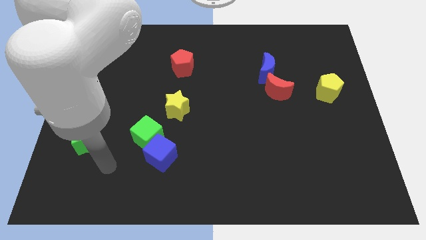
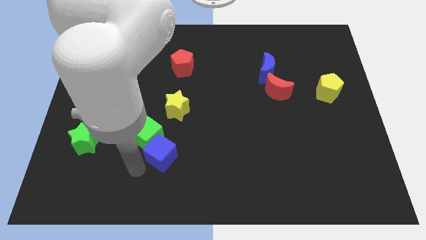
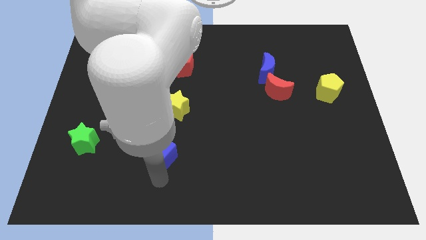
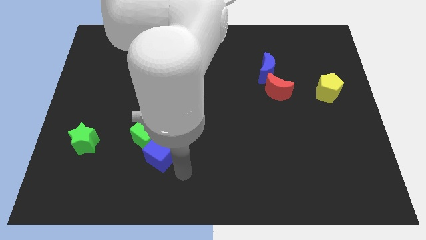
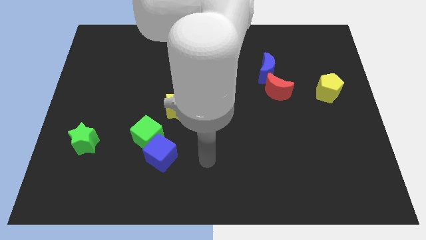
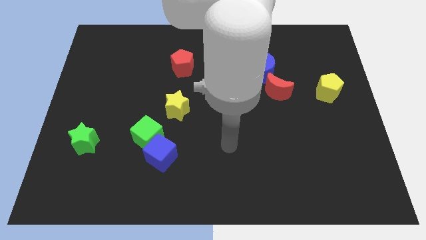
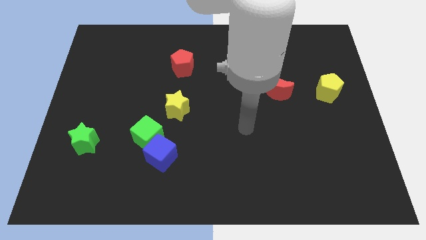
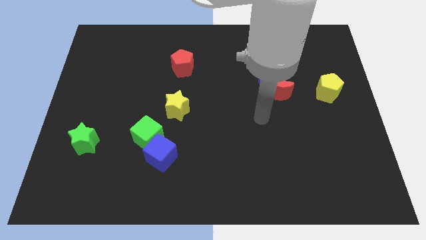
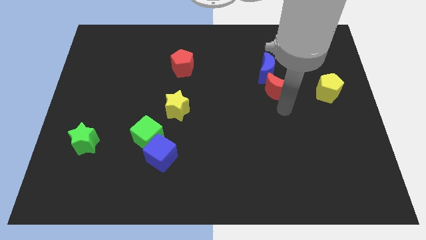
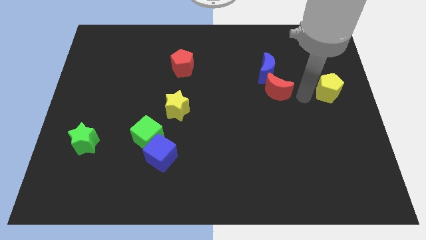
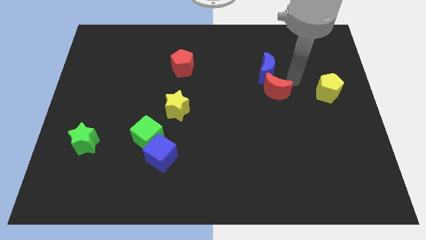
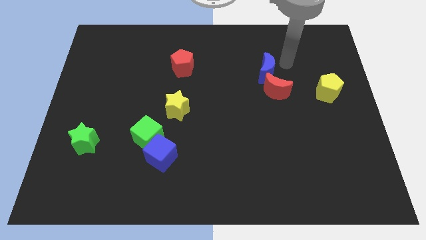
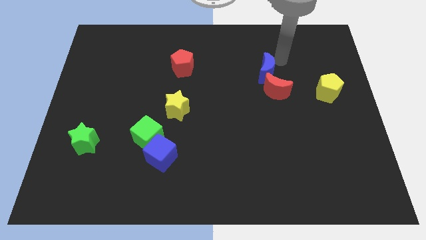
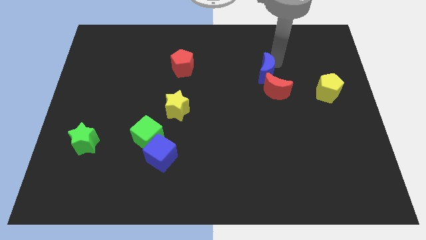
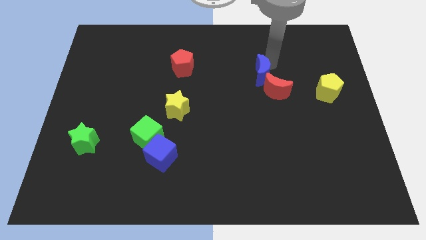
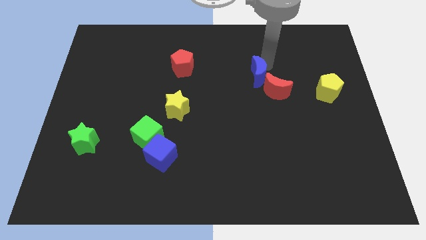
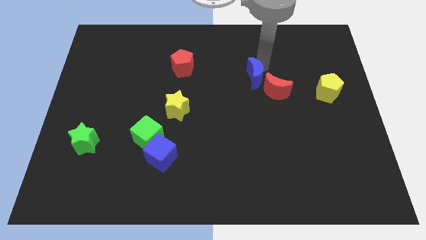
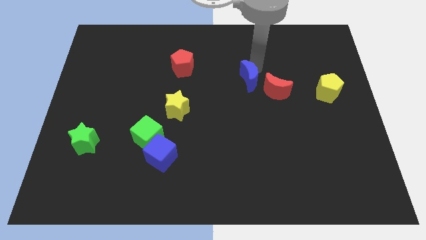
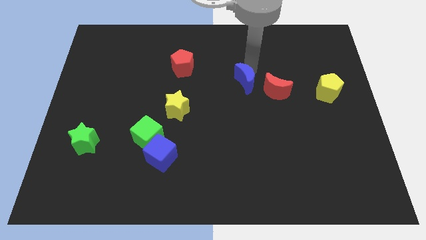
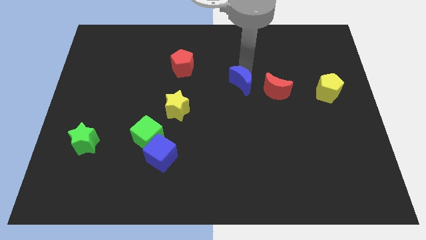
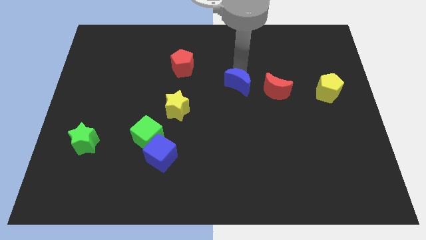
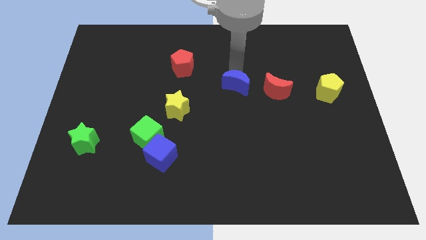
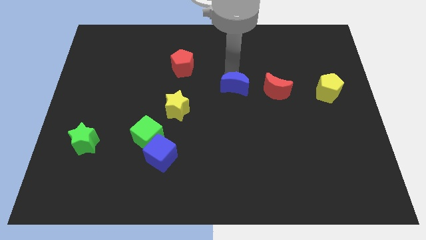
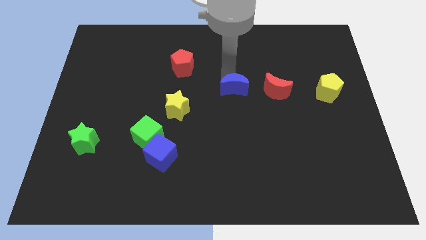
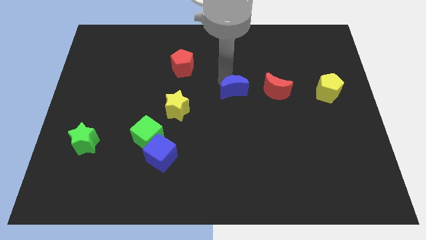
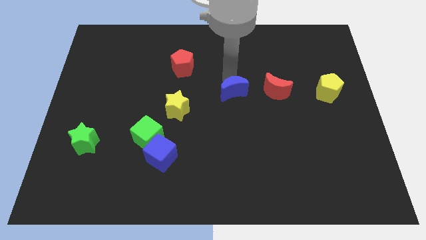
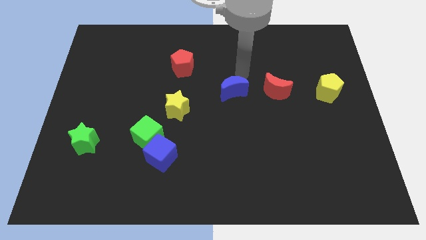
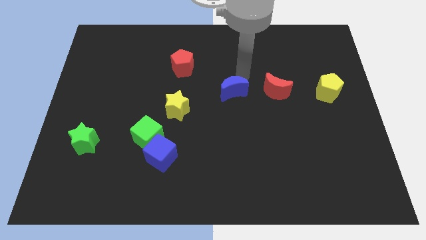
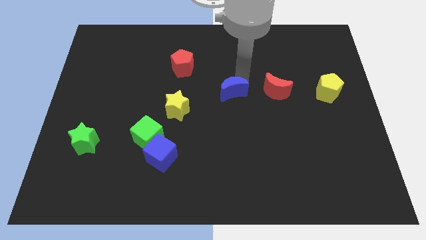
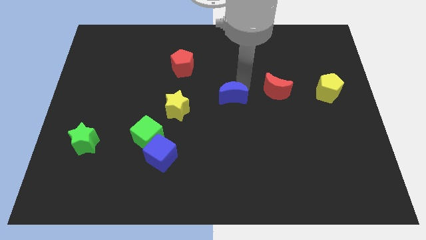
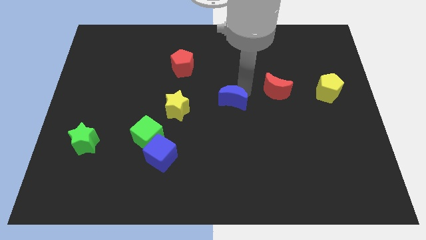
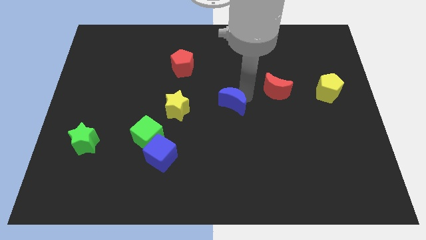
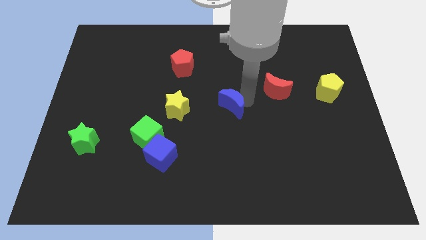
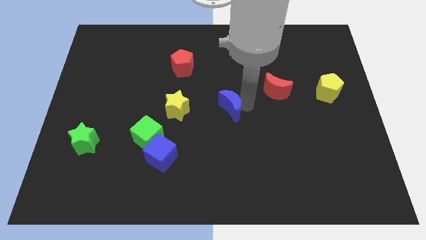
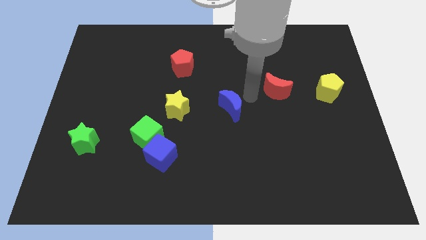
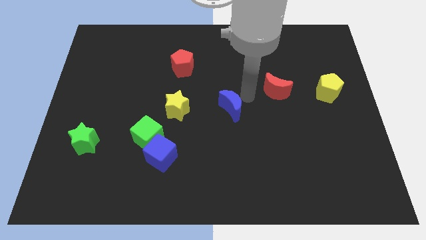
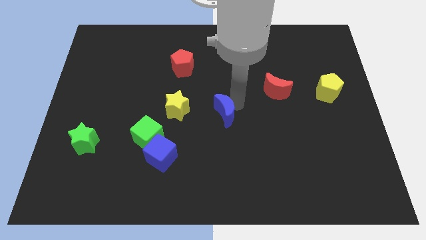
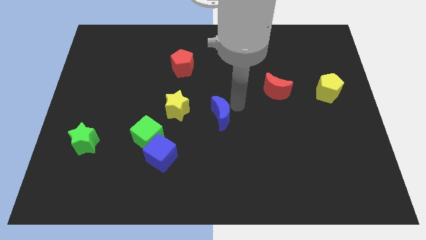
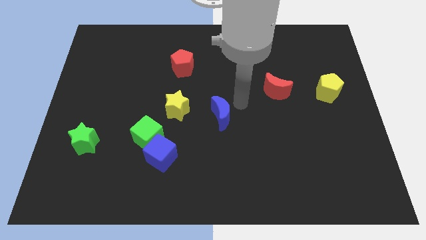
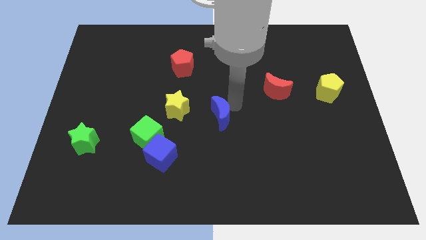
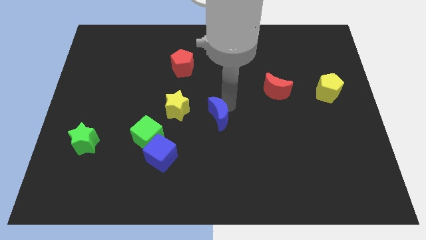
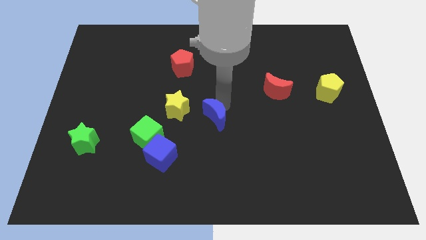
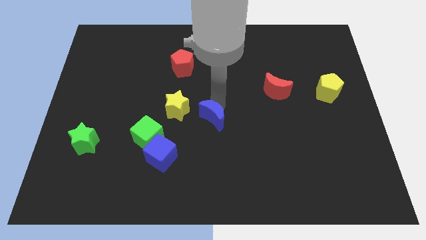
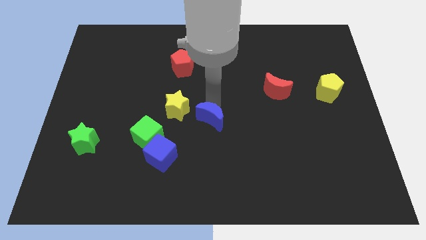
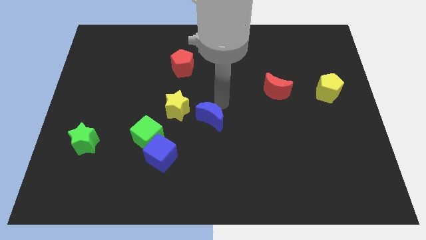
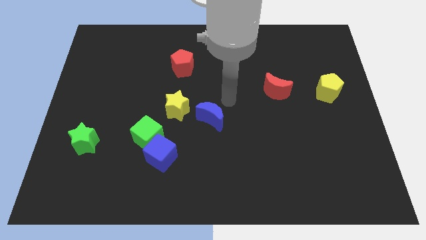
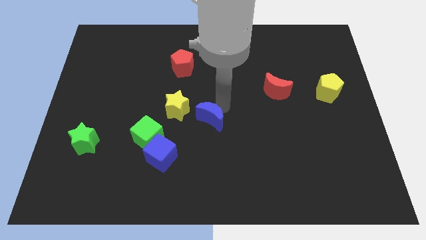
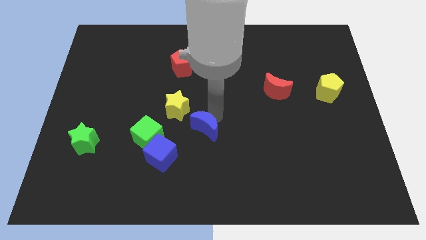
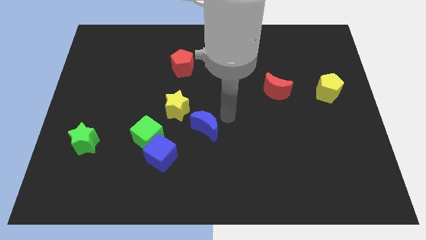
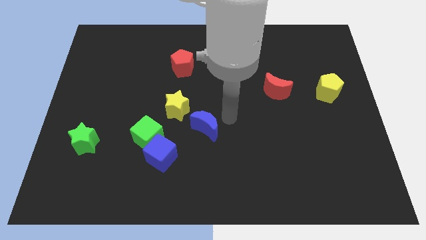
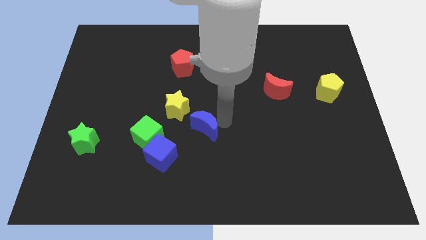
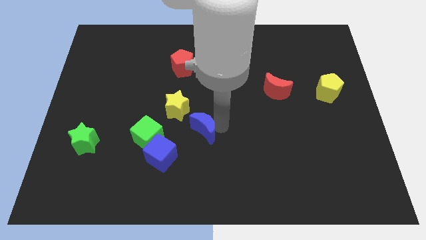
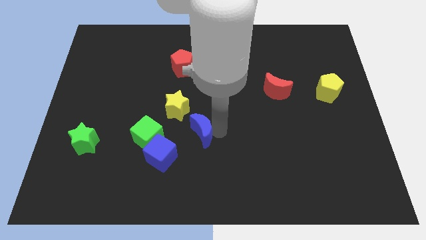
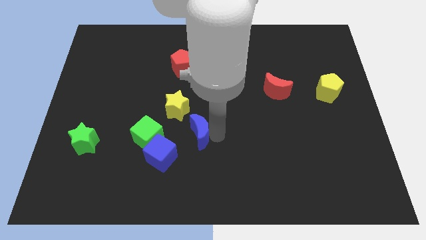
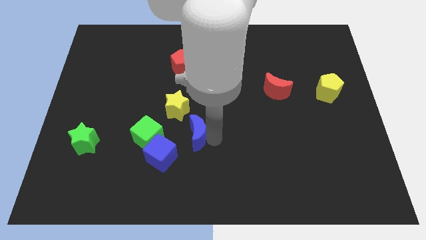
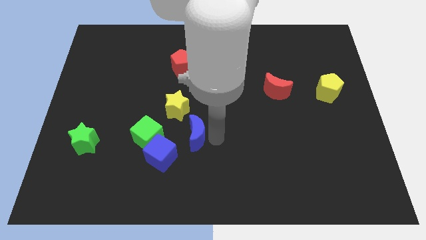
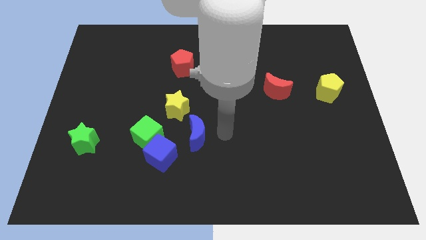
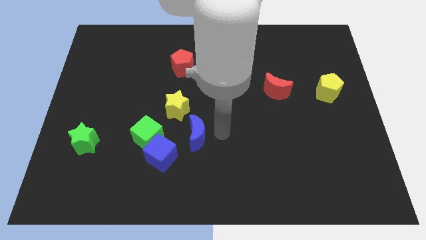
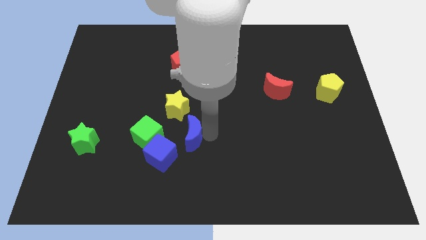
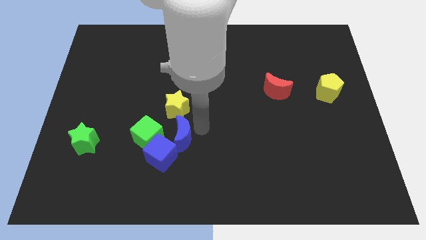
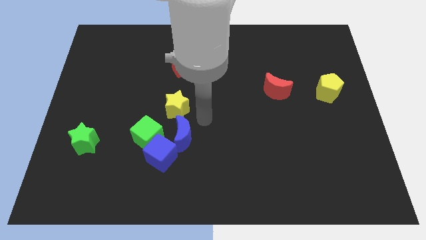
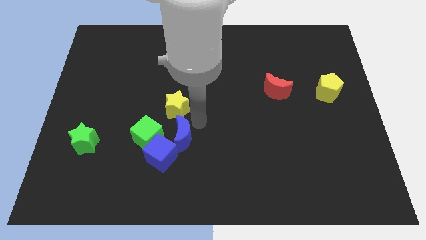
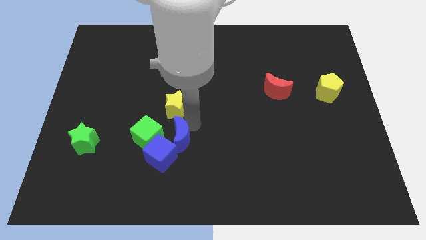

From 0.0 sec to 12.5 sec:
move the blue moon towards the blue cube
